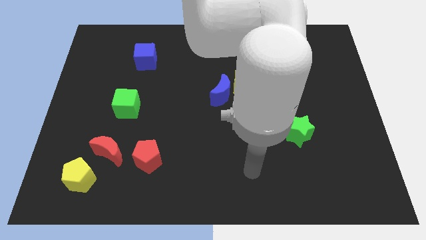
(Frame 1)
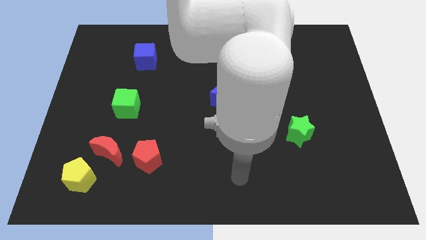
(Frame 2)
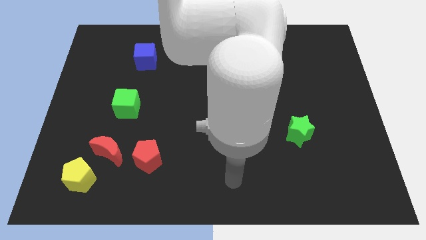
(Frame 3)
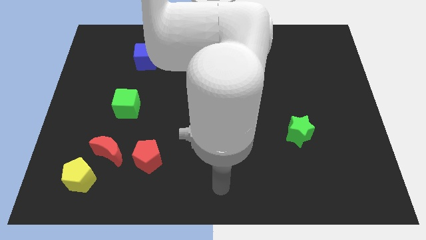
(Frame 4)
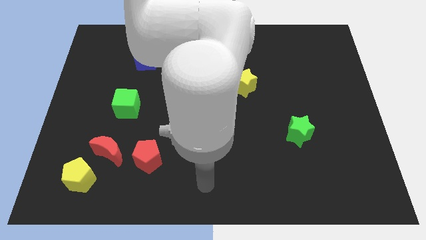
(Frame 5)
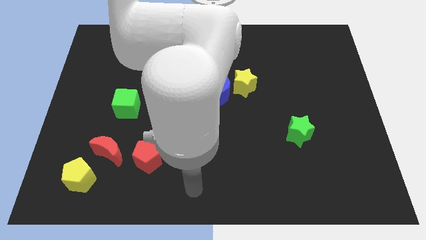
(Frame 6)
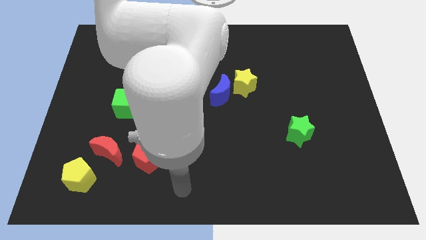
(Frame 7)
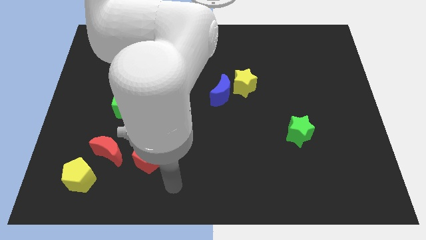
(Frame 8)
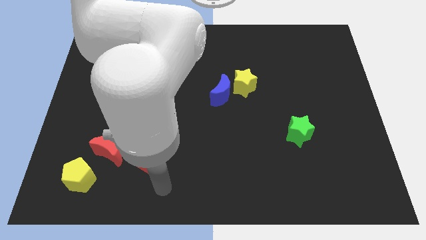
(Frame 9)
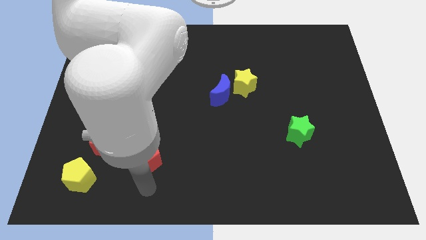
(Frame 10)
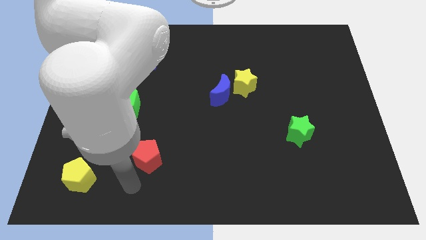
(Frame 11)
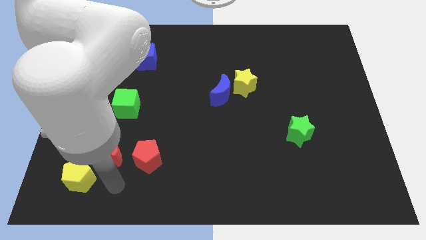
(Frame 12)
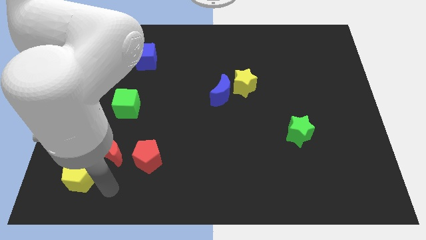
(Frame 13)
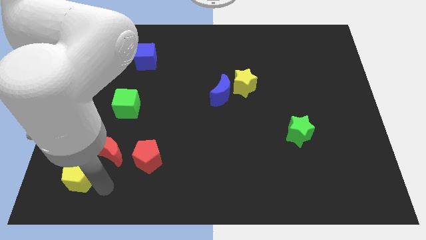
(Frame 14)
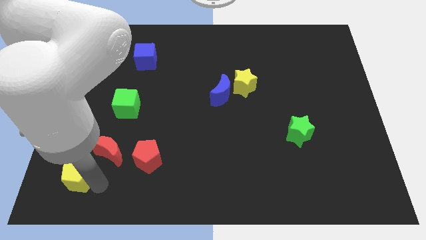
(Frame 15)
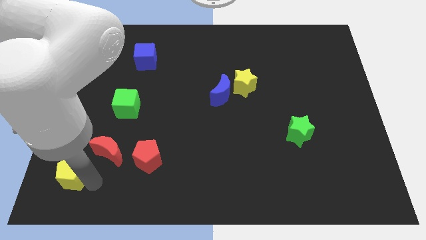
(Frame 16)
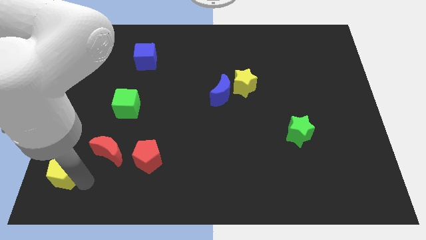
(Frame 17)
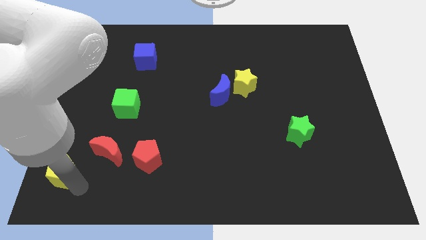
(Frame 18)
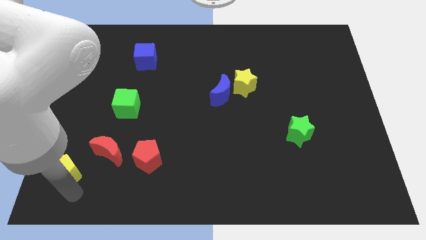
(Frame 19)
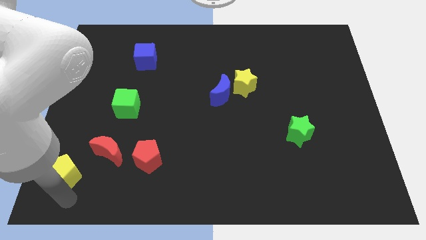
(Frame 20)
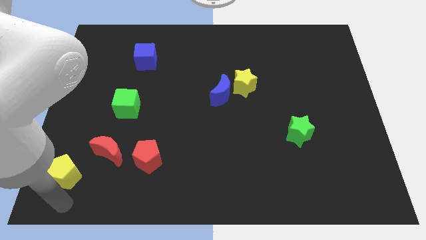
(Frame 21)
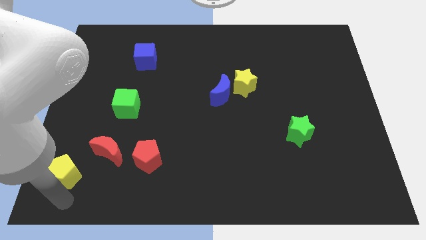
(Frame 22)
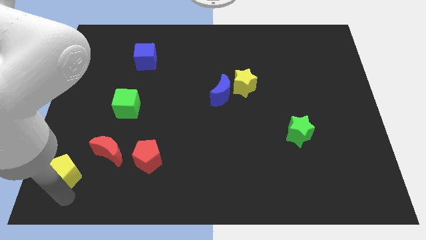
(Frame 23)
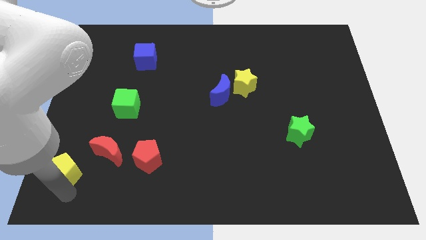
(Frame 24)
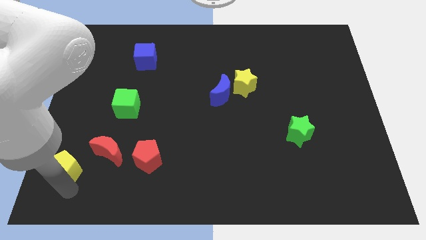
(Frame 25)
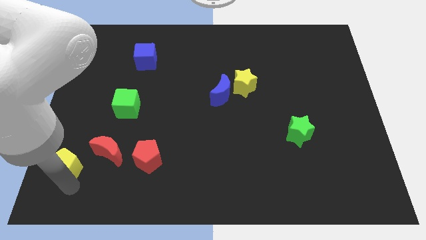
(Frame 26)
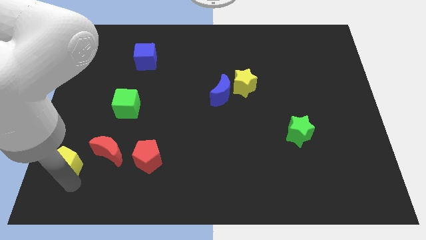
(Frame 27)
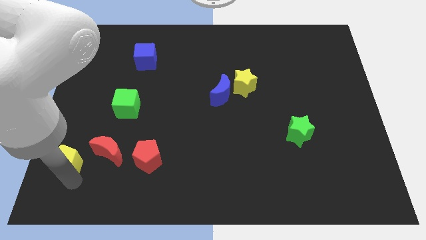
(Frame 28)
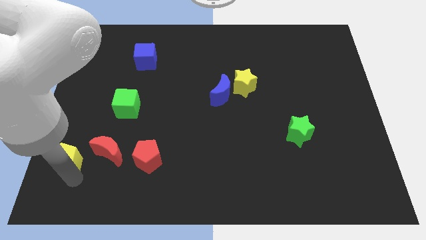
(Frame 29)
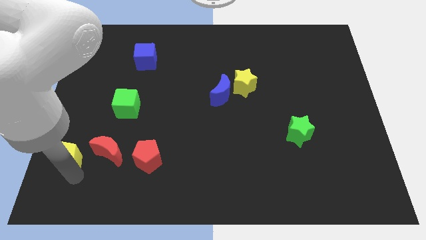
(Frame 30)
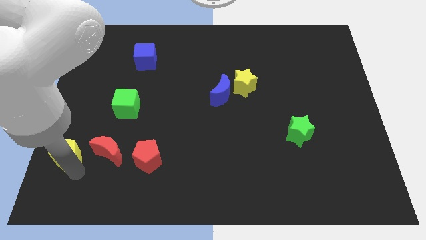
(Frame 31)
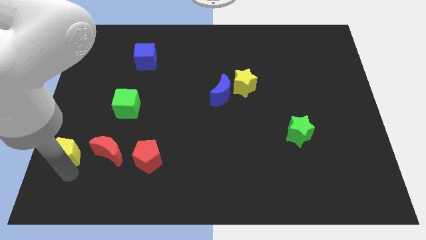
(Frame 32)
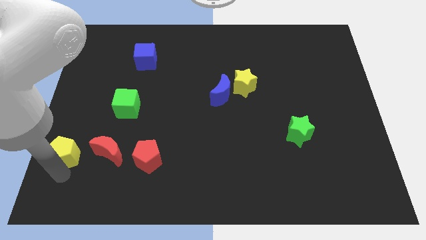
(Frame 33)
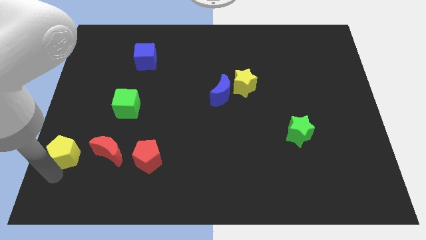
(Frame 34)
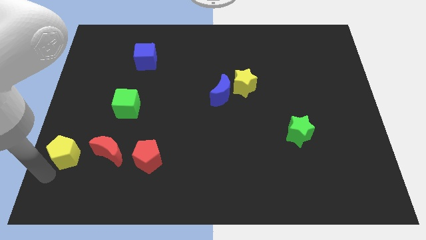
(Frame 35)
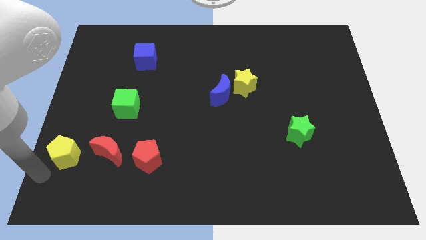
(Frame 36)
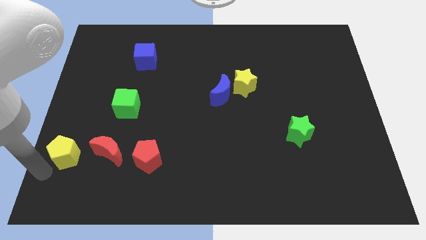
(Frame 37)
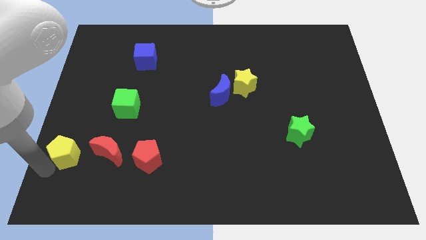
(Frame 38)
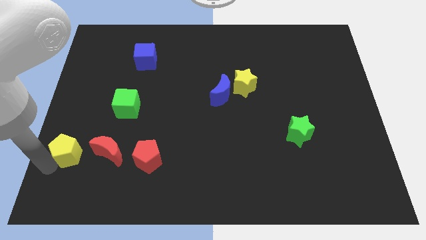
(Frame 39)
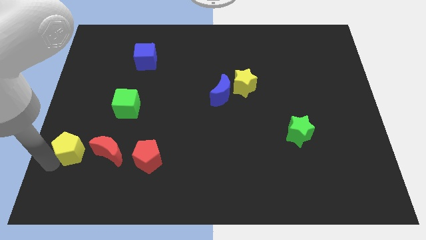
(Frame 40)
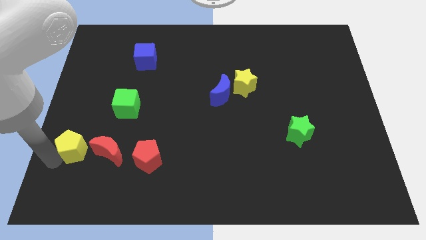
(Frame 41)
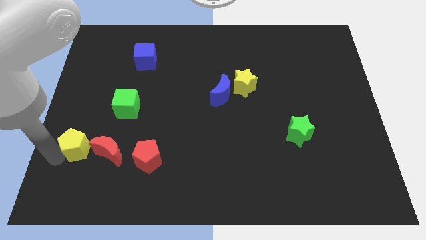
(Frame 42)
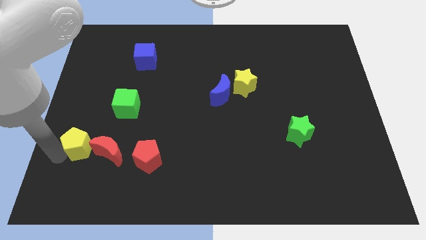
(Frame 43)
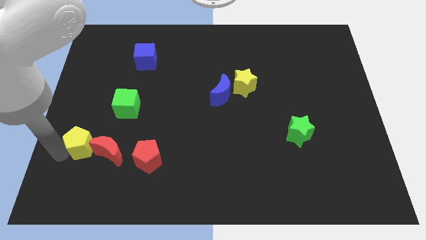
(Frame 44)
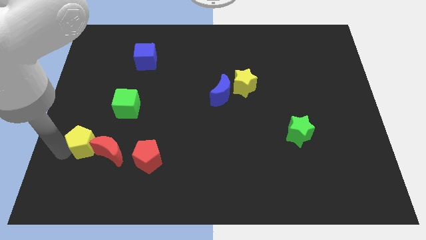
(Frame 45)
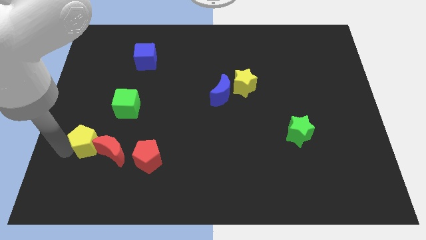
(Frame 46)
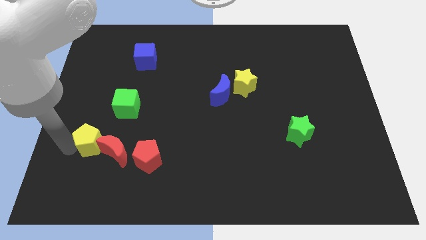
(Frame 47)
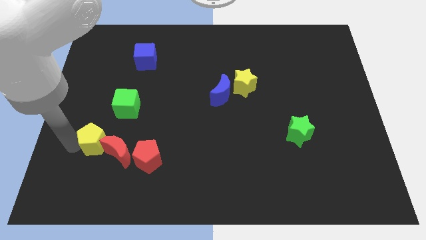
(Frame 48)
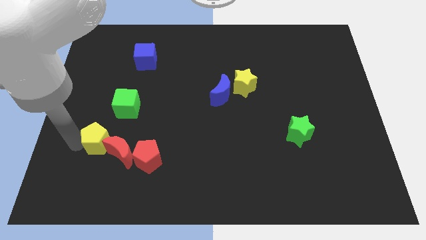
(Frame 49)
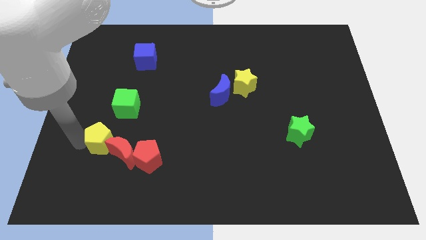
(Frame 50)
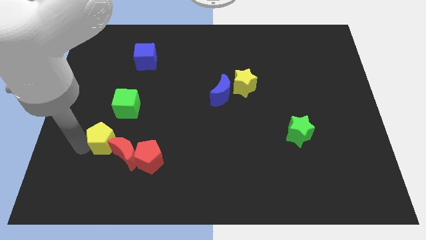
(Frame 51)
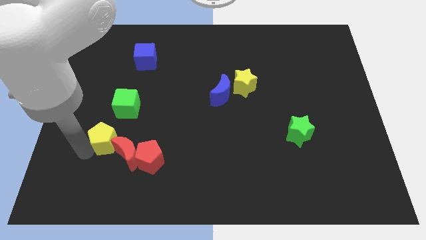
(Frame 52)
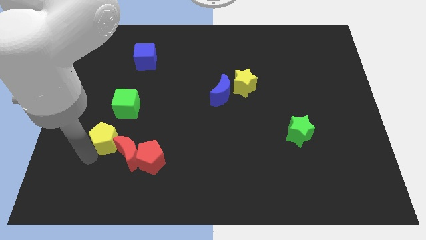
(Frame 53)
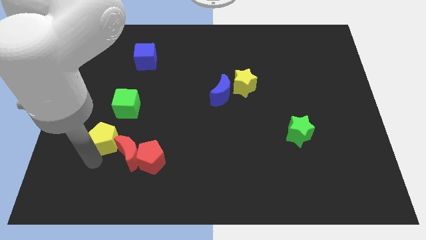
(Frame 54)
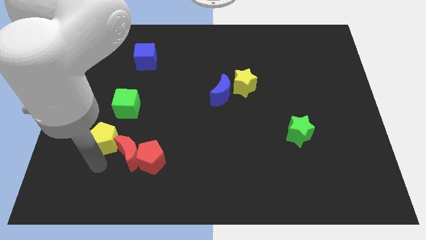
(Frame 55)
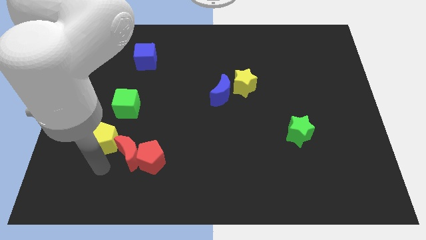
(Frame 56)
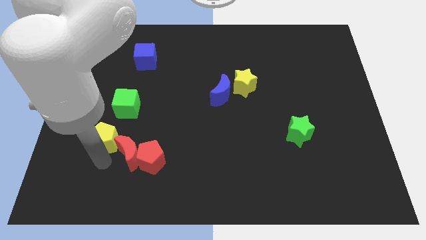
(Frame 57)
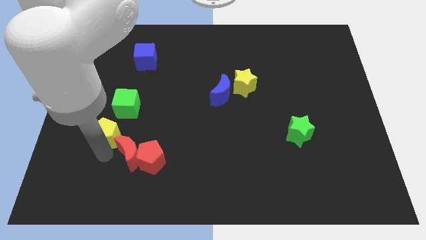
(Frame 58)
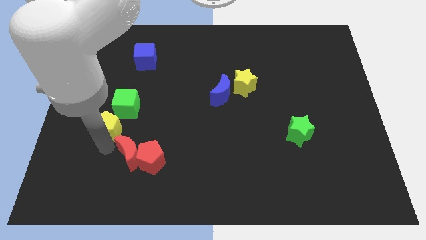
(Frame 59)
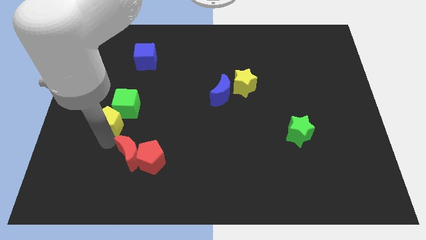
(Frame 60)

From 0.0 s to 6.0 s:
push the yellow pentagon close to the green cube

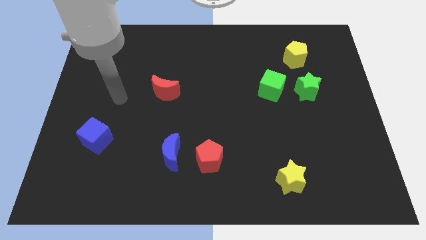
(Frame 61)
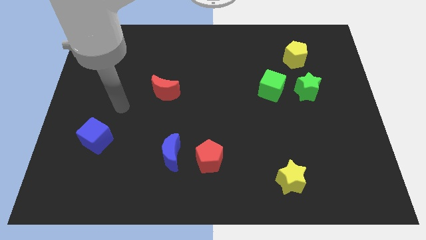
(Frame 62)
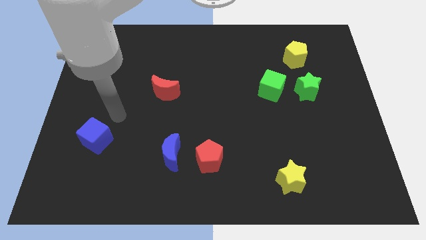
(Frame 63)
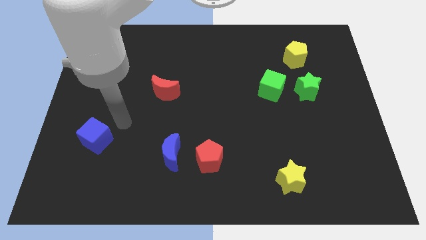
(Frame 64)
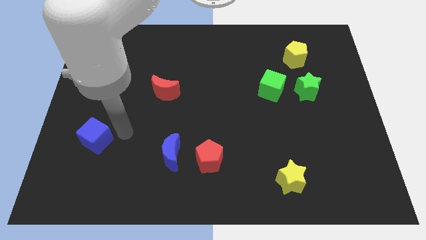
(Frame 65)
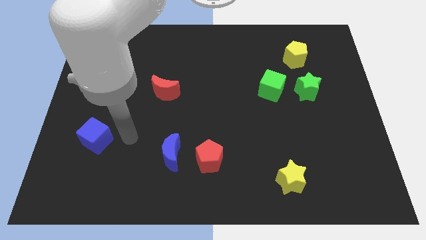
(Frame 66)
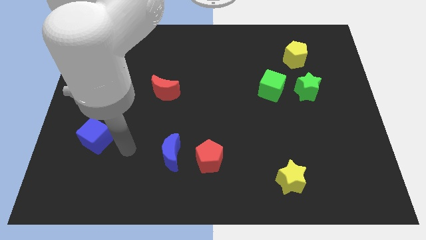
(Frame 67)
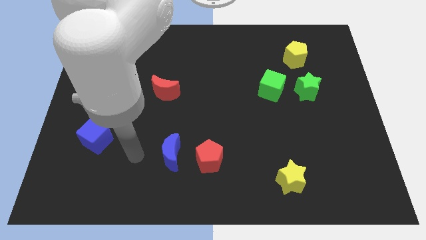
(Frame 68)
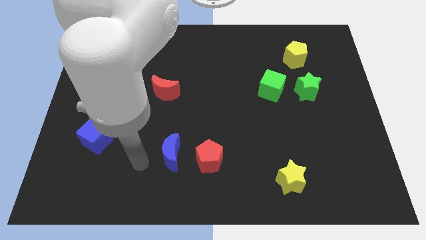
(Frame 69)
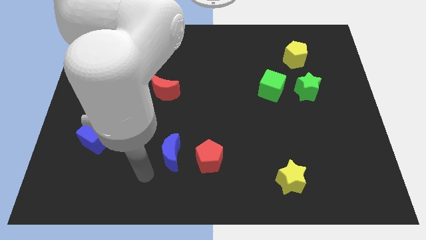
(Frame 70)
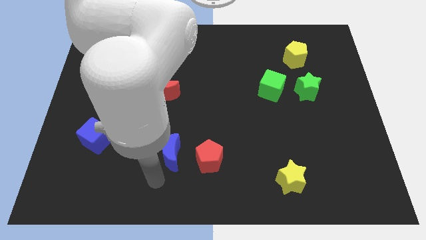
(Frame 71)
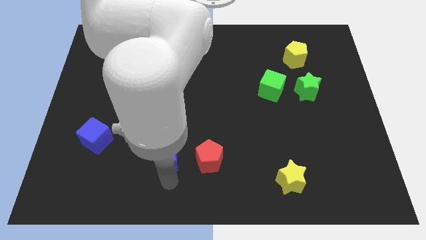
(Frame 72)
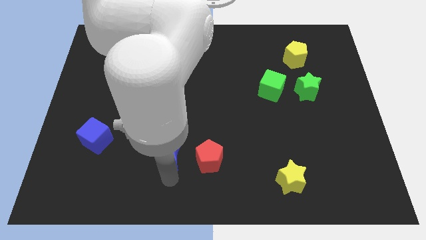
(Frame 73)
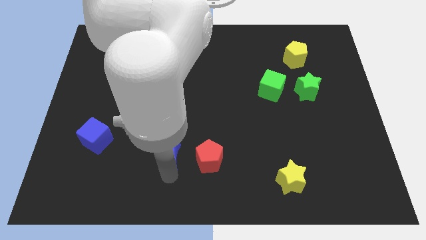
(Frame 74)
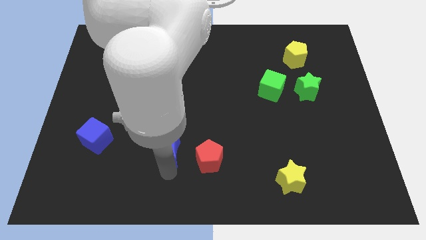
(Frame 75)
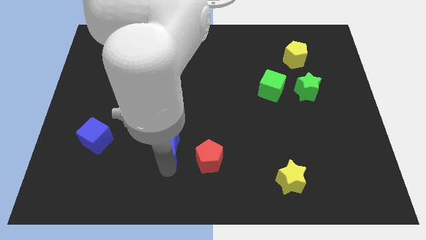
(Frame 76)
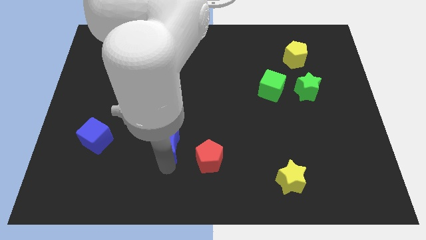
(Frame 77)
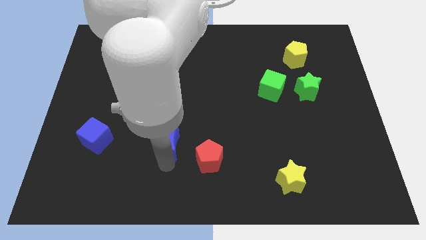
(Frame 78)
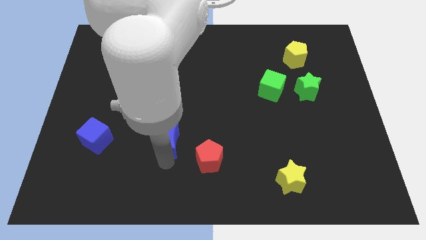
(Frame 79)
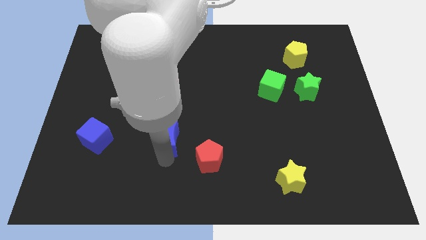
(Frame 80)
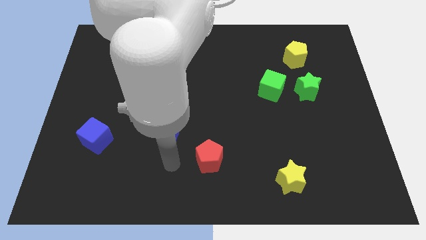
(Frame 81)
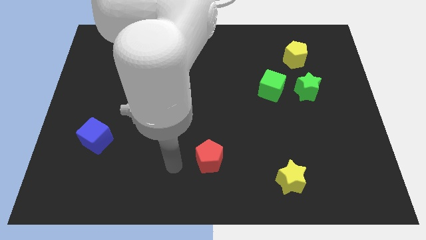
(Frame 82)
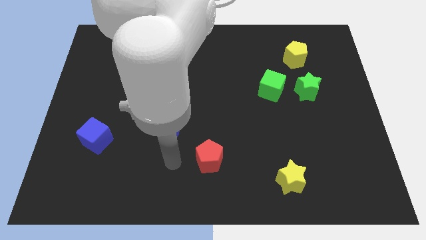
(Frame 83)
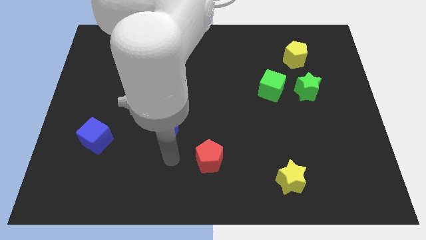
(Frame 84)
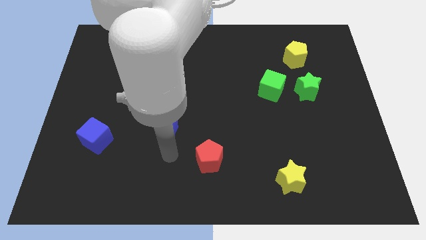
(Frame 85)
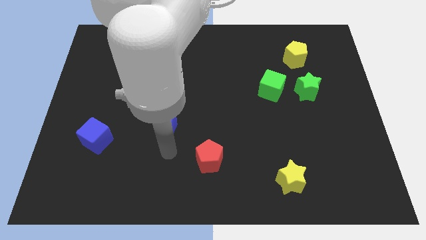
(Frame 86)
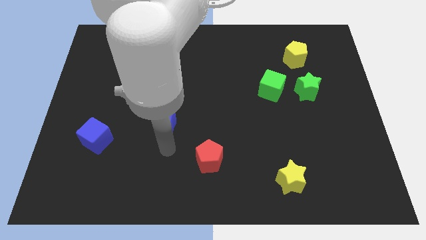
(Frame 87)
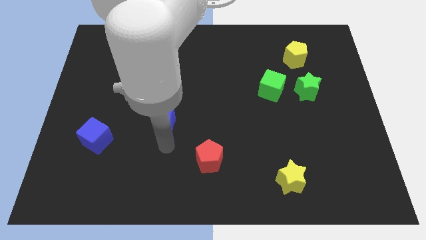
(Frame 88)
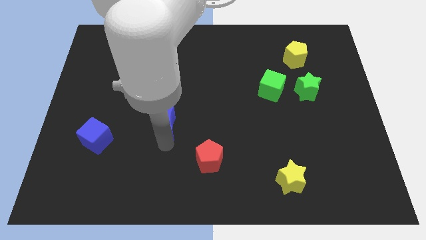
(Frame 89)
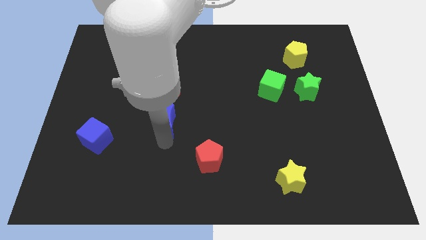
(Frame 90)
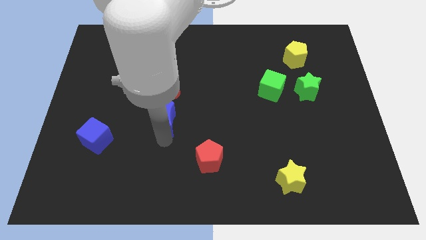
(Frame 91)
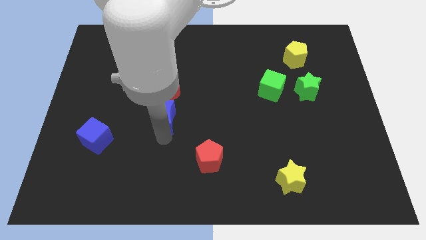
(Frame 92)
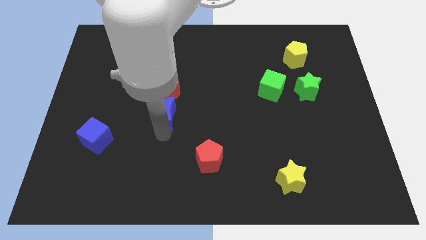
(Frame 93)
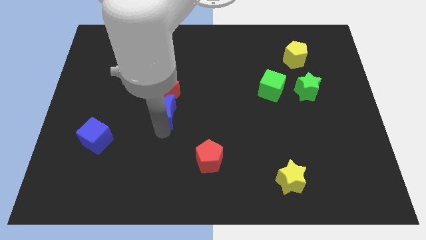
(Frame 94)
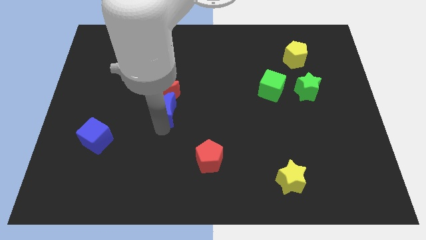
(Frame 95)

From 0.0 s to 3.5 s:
slide the blue moon to the red moon
